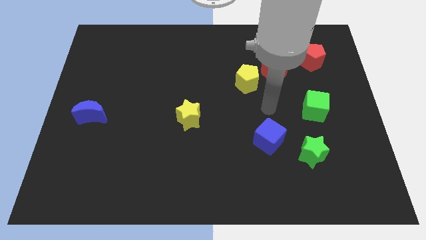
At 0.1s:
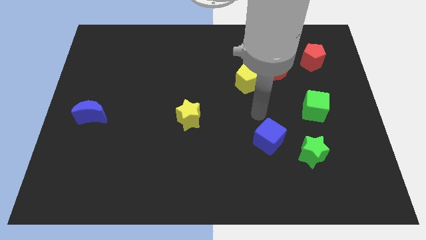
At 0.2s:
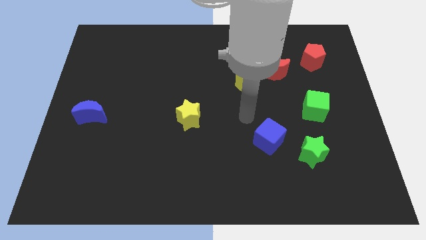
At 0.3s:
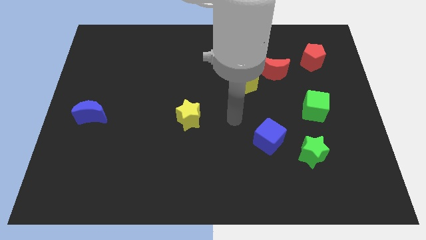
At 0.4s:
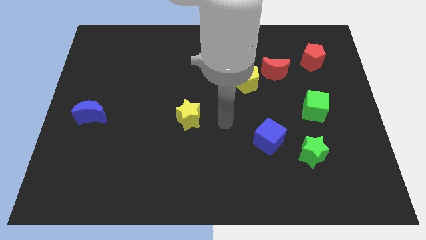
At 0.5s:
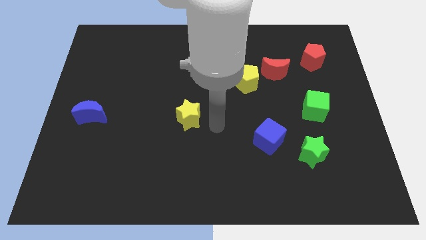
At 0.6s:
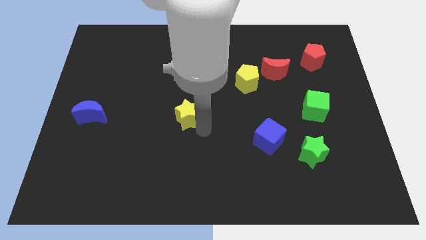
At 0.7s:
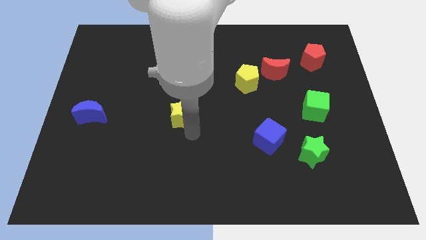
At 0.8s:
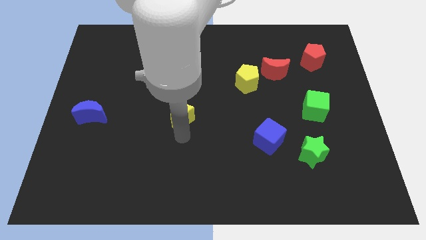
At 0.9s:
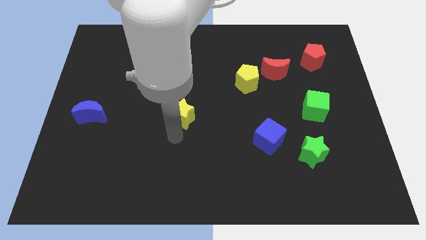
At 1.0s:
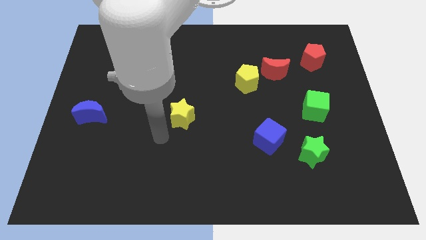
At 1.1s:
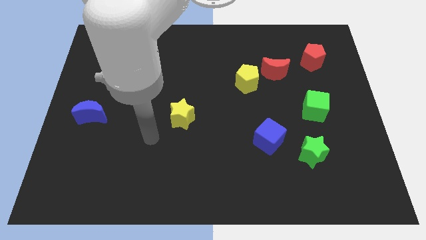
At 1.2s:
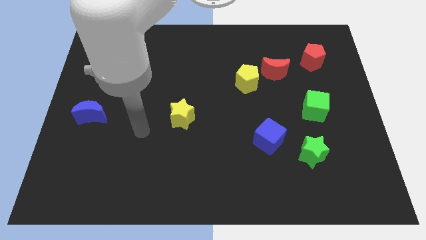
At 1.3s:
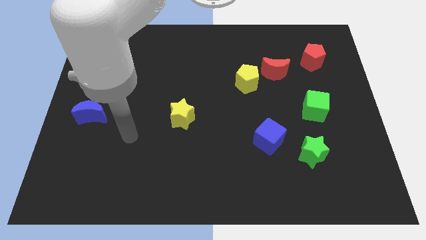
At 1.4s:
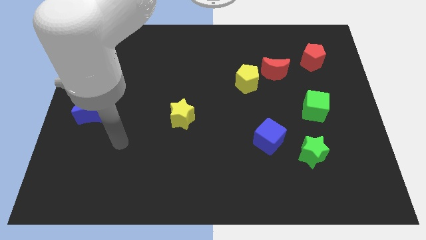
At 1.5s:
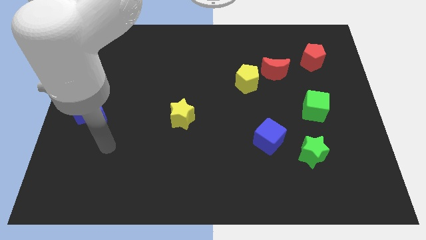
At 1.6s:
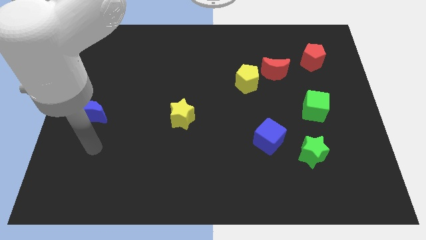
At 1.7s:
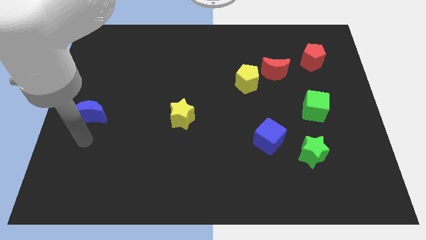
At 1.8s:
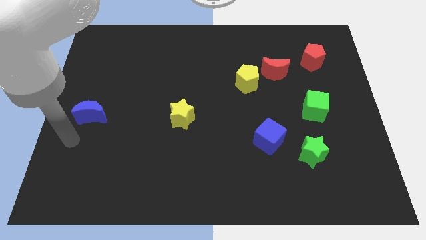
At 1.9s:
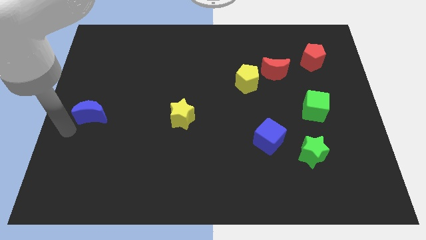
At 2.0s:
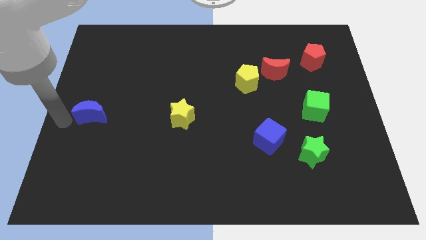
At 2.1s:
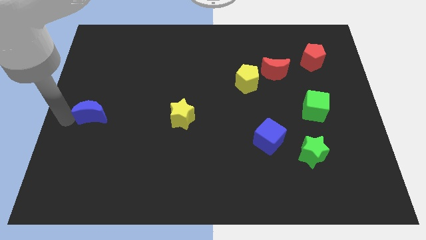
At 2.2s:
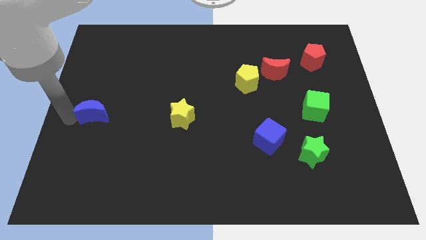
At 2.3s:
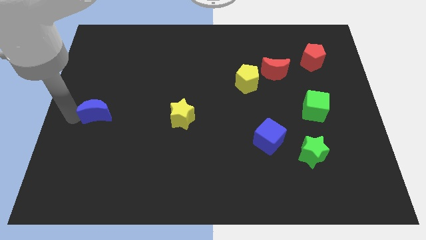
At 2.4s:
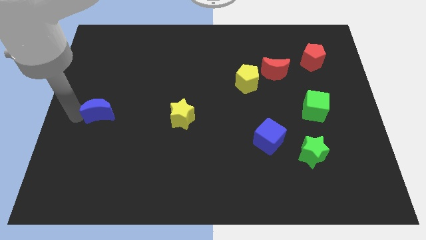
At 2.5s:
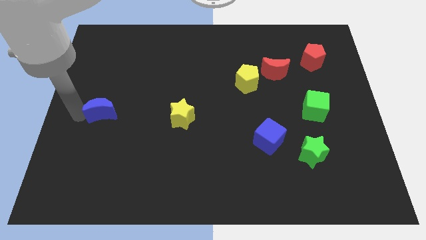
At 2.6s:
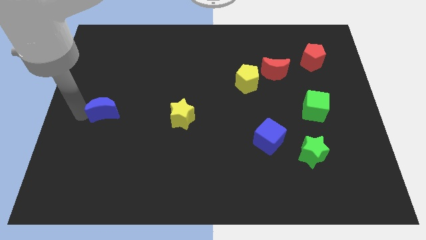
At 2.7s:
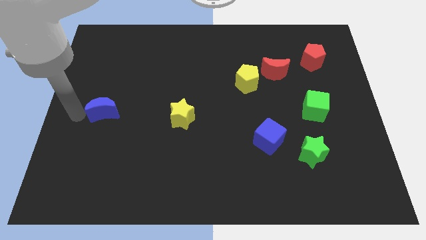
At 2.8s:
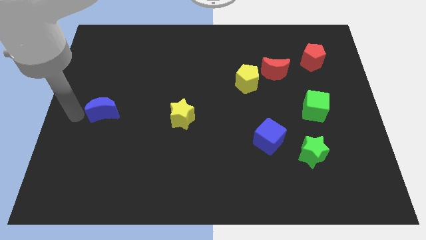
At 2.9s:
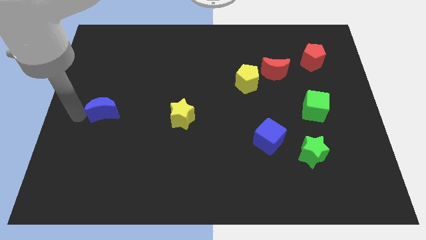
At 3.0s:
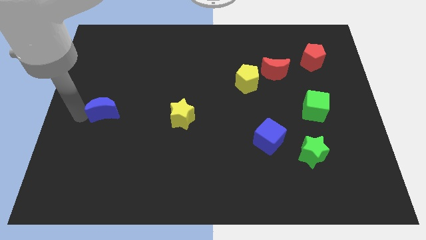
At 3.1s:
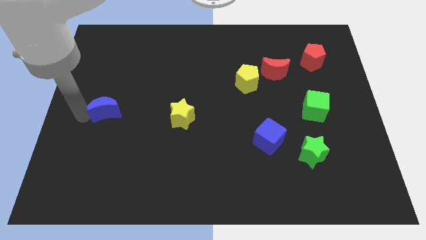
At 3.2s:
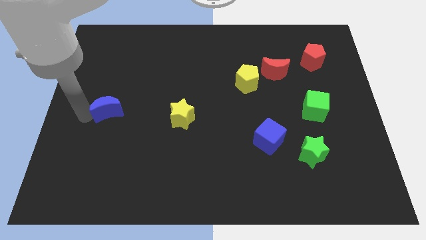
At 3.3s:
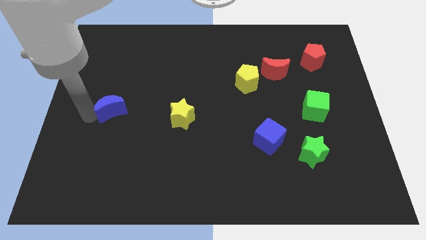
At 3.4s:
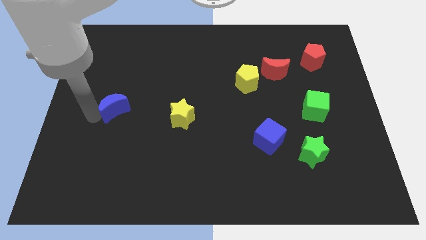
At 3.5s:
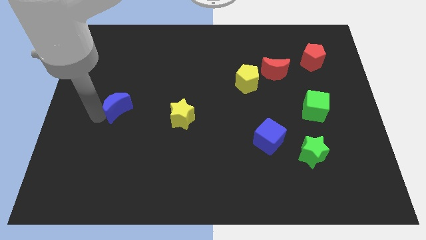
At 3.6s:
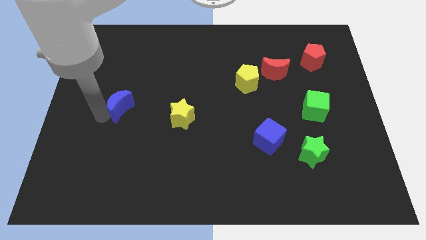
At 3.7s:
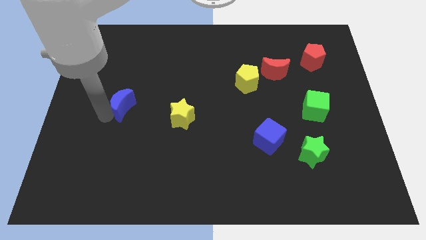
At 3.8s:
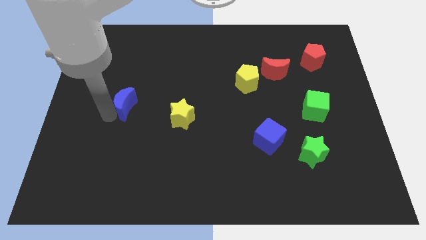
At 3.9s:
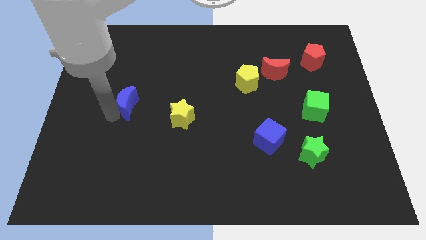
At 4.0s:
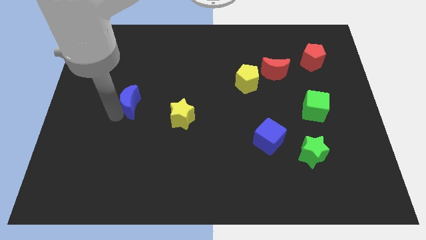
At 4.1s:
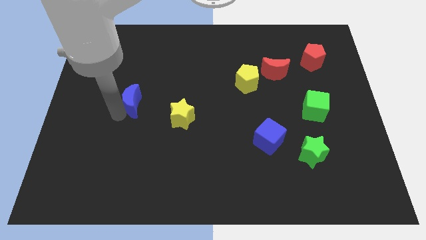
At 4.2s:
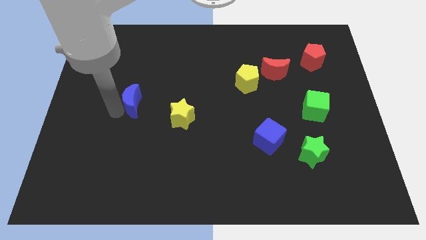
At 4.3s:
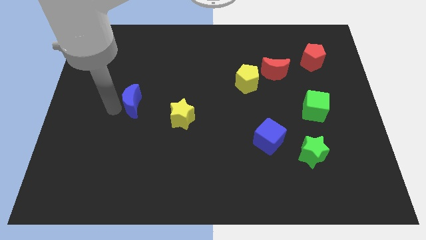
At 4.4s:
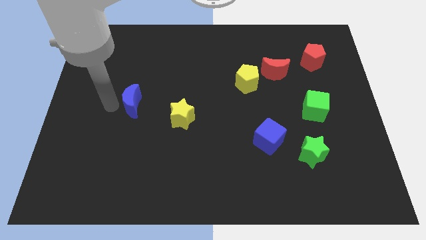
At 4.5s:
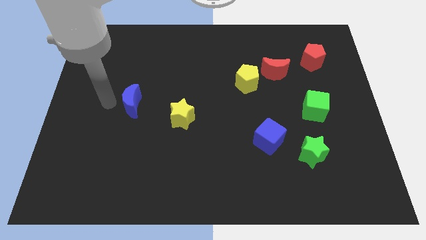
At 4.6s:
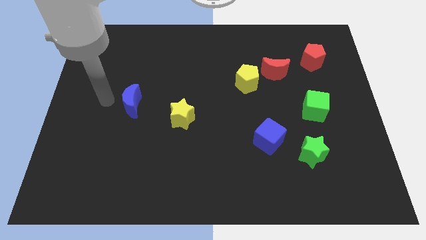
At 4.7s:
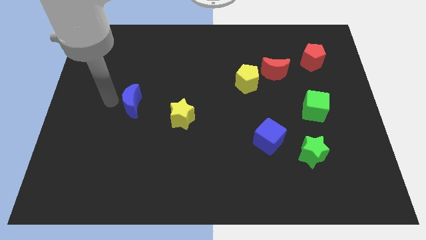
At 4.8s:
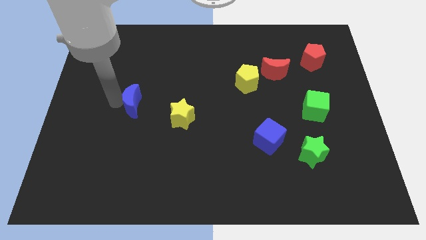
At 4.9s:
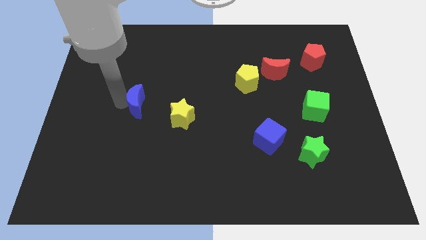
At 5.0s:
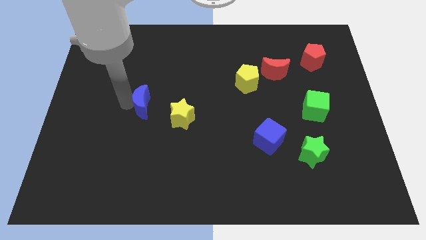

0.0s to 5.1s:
put the blue moon diagonally up and to the left of the yellow star

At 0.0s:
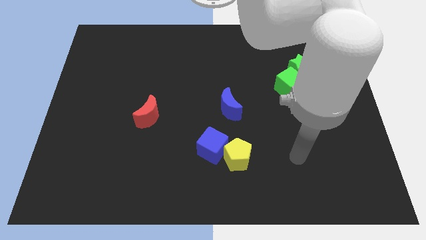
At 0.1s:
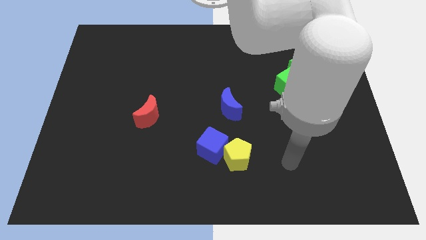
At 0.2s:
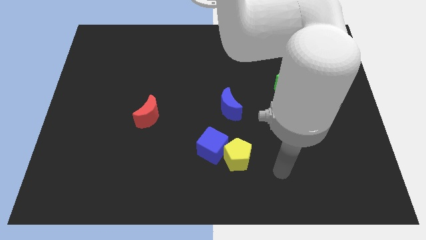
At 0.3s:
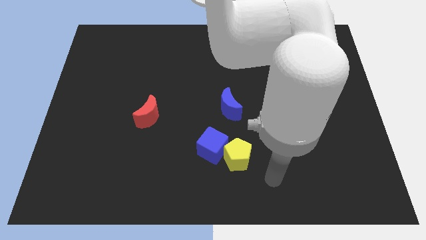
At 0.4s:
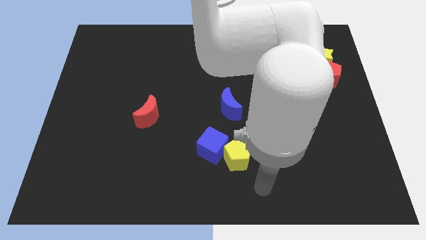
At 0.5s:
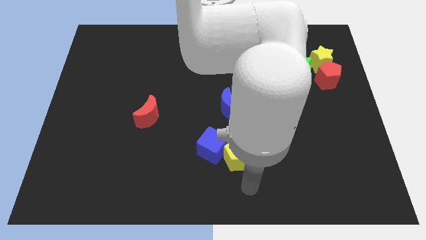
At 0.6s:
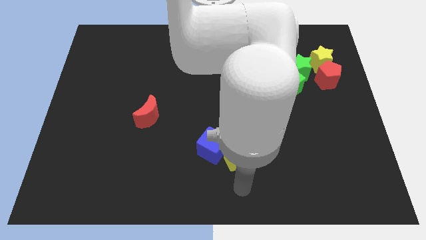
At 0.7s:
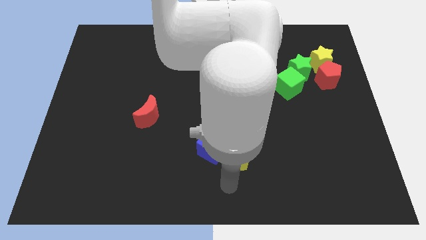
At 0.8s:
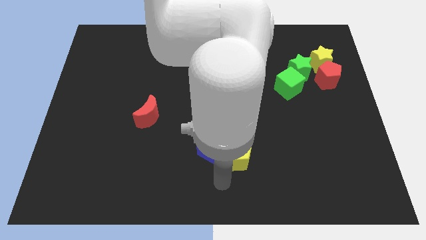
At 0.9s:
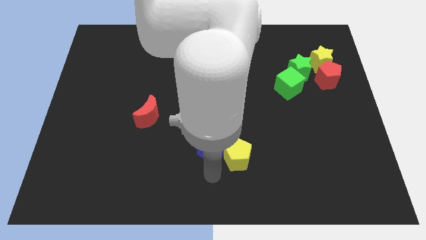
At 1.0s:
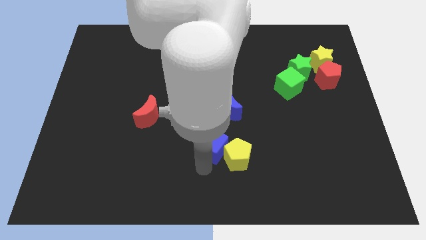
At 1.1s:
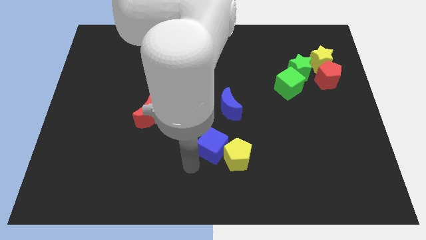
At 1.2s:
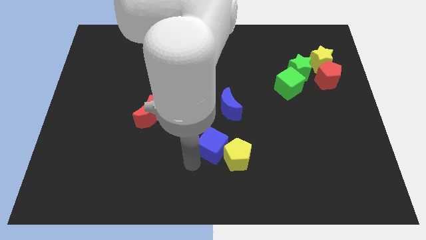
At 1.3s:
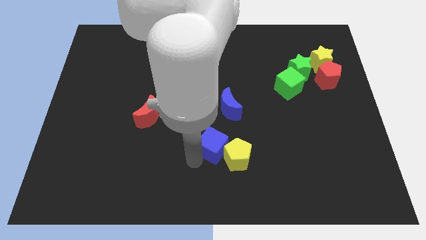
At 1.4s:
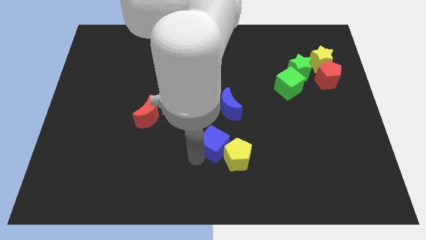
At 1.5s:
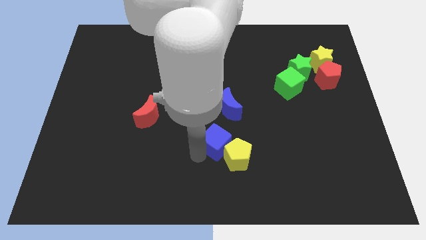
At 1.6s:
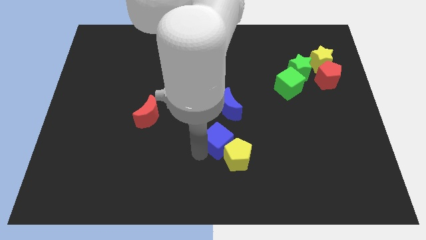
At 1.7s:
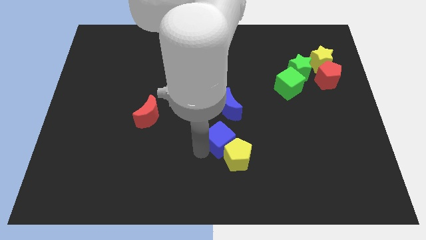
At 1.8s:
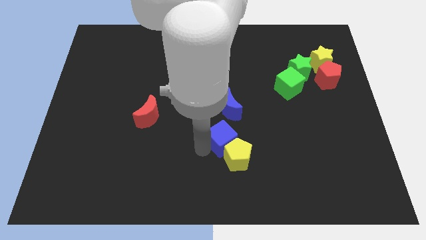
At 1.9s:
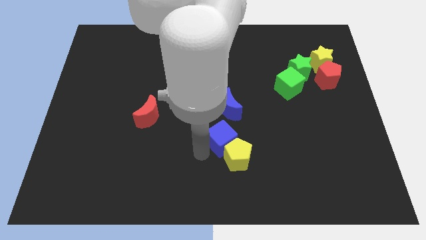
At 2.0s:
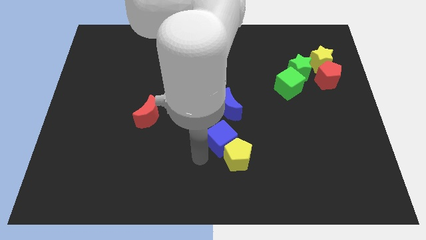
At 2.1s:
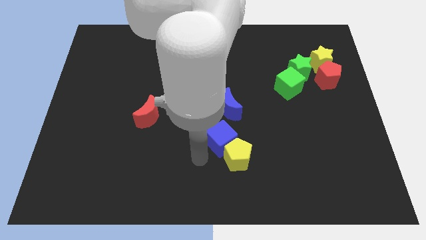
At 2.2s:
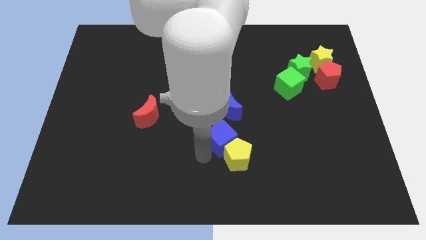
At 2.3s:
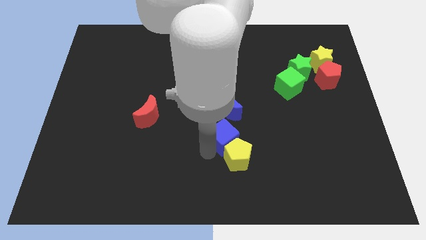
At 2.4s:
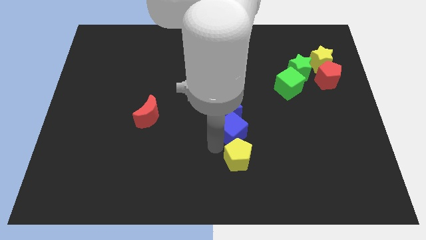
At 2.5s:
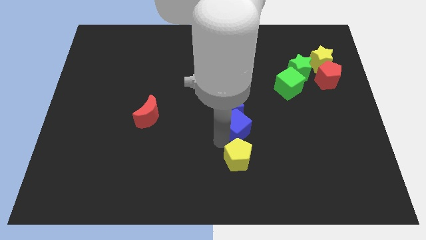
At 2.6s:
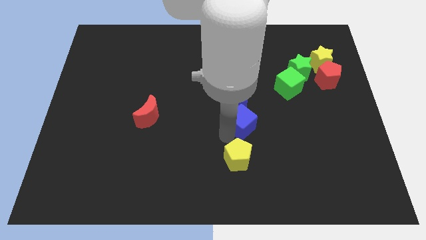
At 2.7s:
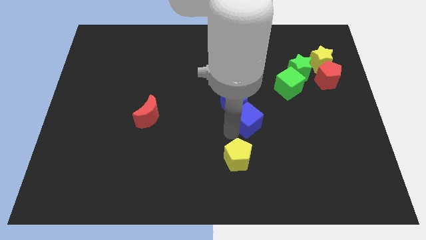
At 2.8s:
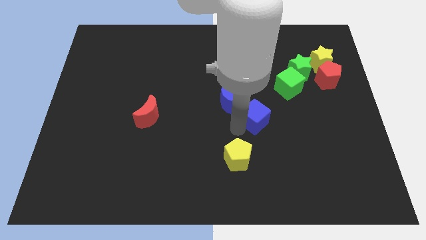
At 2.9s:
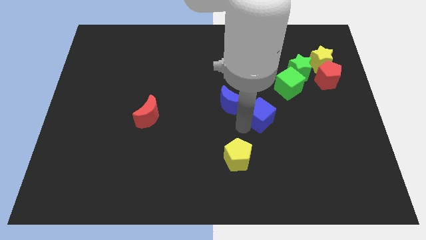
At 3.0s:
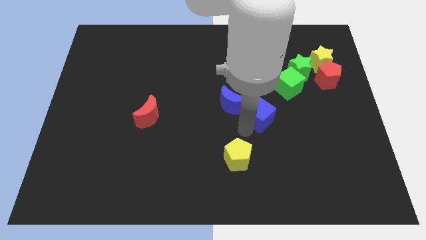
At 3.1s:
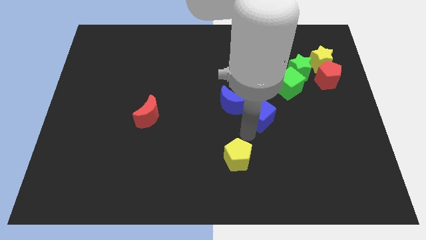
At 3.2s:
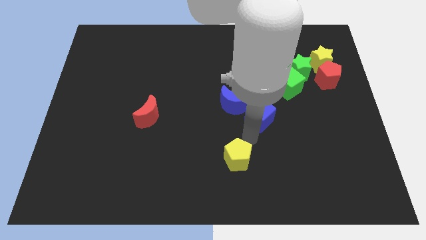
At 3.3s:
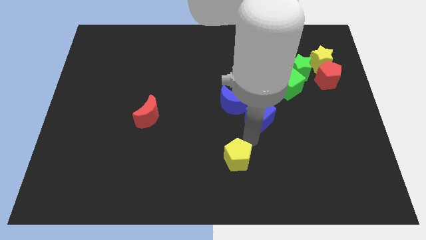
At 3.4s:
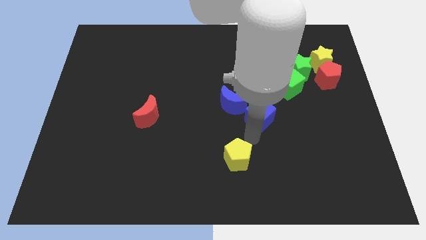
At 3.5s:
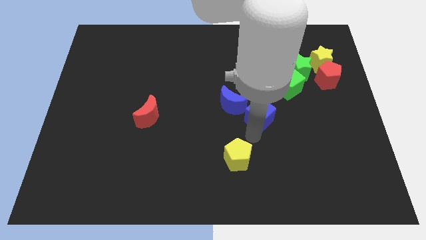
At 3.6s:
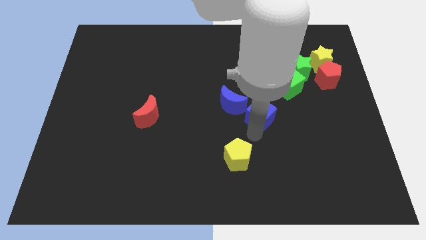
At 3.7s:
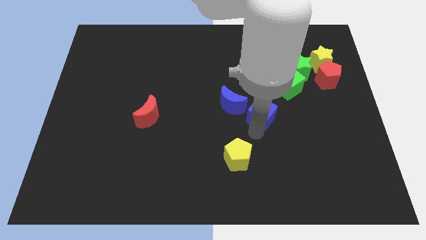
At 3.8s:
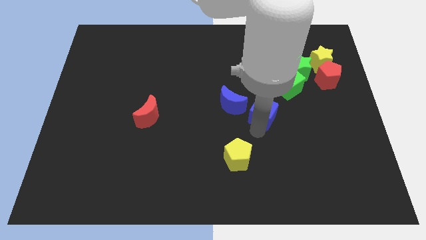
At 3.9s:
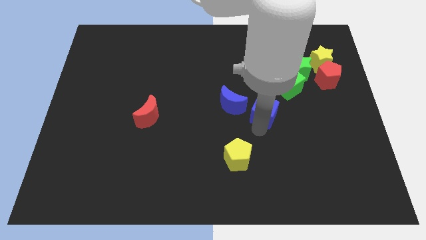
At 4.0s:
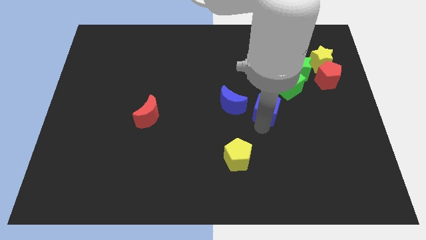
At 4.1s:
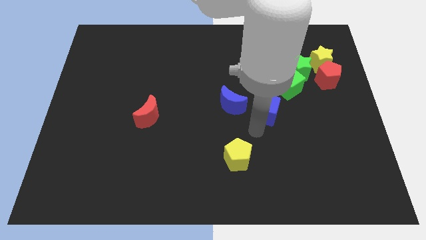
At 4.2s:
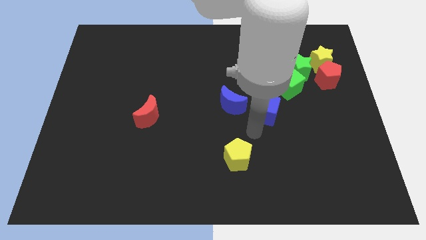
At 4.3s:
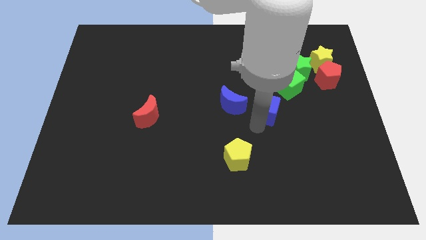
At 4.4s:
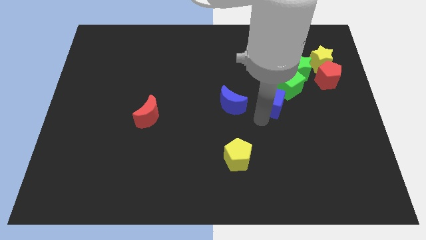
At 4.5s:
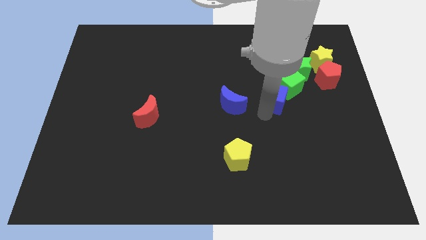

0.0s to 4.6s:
move the blue cube to the bottom left of the green star
